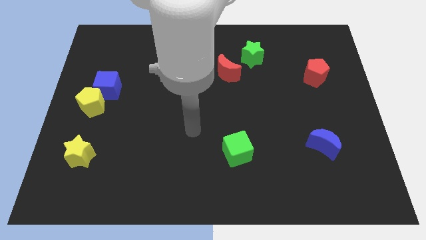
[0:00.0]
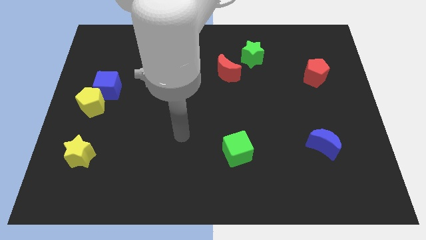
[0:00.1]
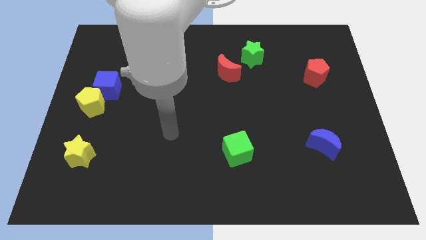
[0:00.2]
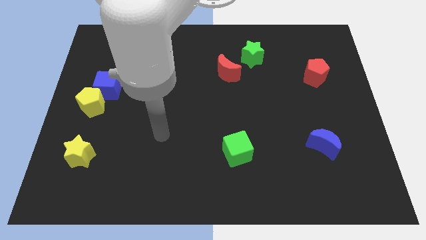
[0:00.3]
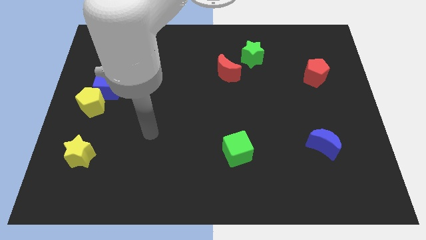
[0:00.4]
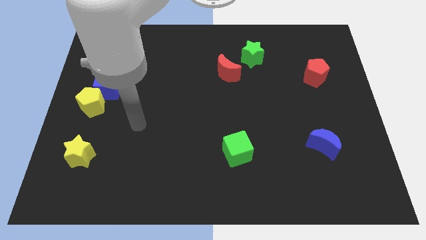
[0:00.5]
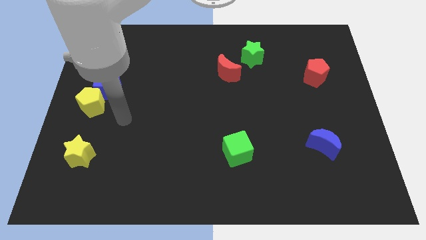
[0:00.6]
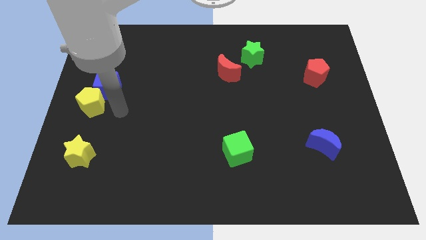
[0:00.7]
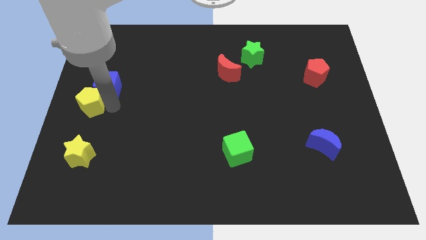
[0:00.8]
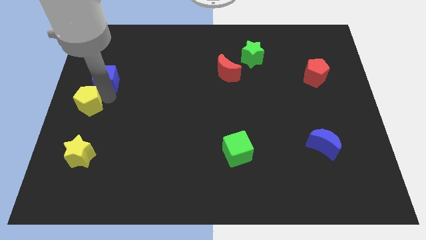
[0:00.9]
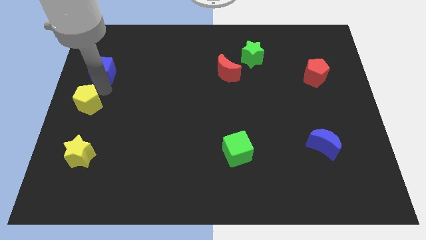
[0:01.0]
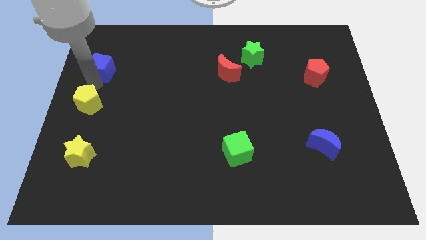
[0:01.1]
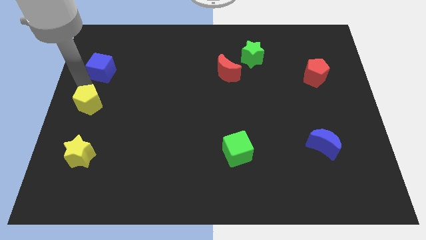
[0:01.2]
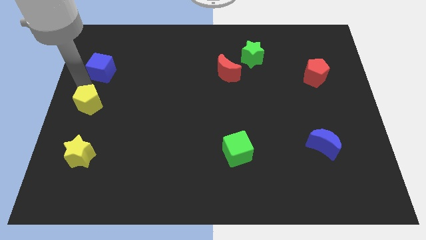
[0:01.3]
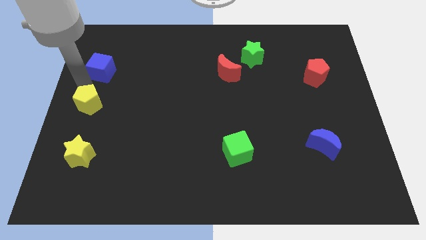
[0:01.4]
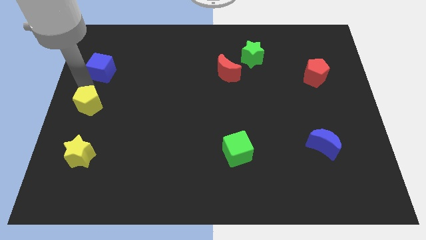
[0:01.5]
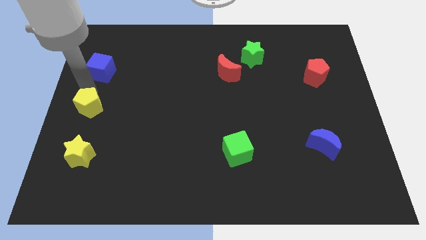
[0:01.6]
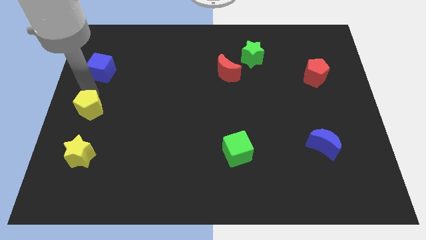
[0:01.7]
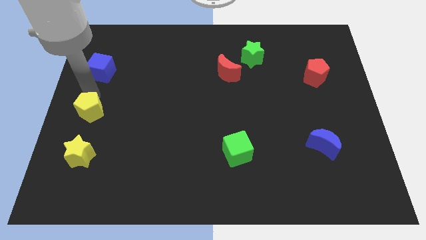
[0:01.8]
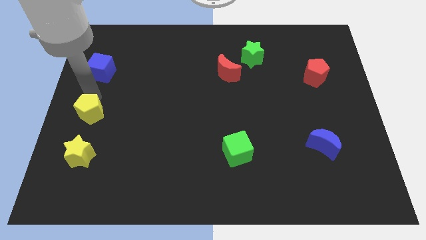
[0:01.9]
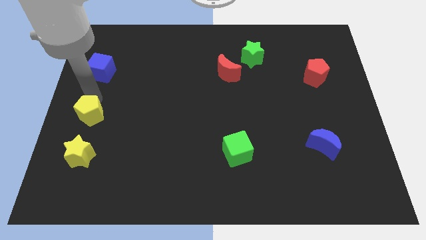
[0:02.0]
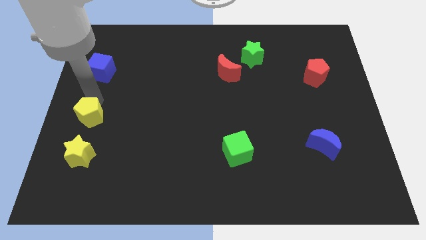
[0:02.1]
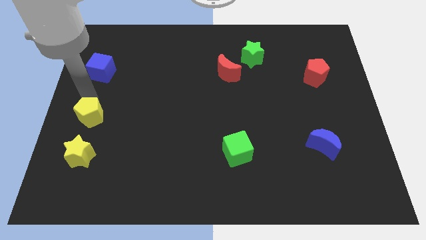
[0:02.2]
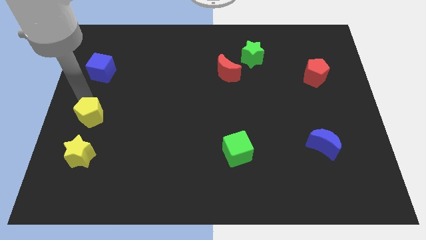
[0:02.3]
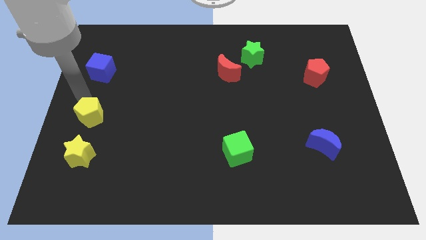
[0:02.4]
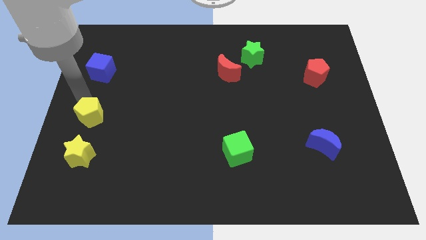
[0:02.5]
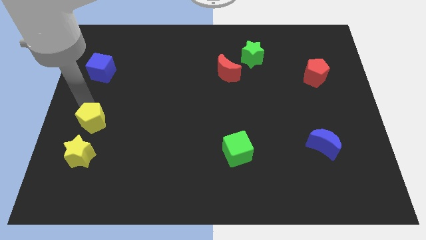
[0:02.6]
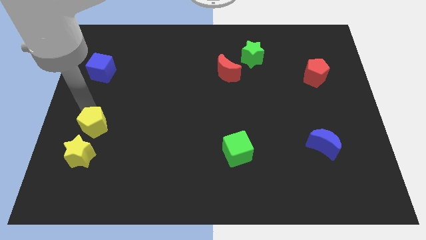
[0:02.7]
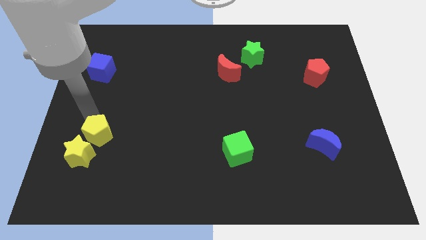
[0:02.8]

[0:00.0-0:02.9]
push the yellow pentagon downwards a little bit

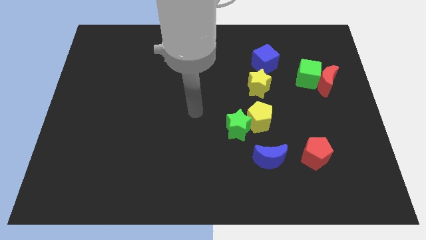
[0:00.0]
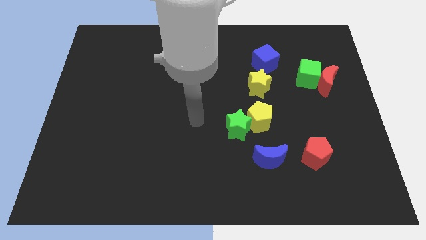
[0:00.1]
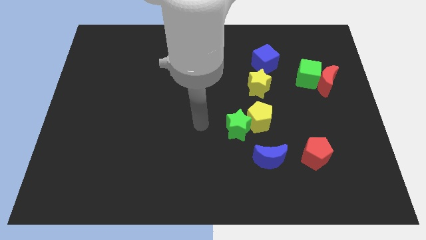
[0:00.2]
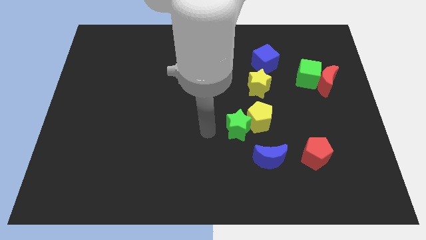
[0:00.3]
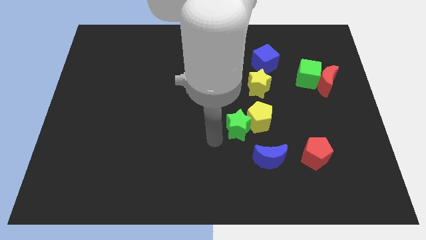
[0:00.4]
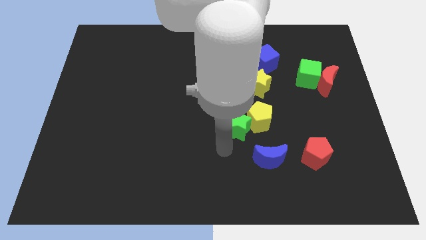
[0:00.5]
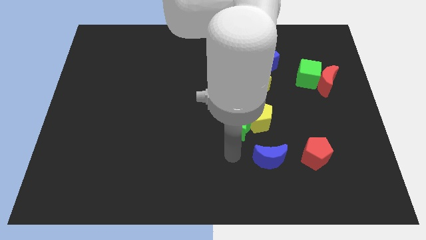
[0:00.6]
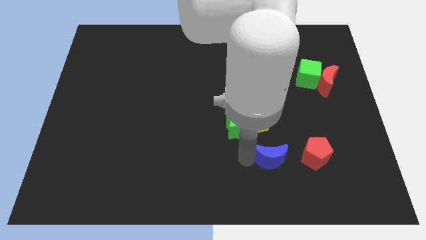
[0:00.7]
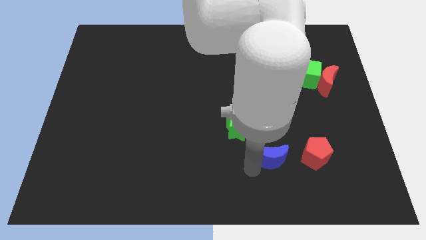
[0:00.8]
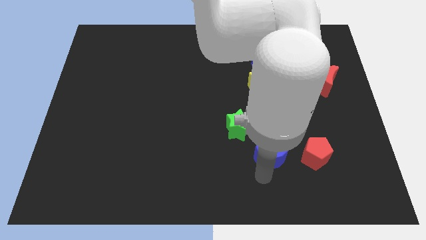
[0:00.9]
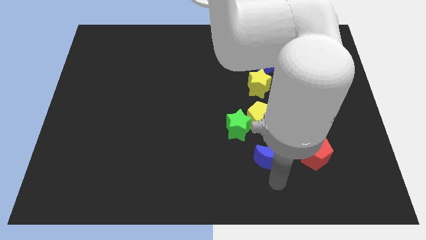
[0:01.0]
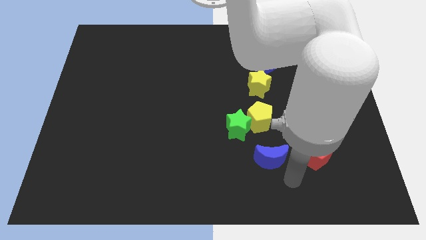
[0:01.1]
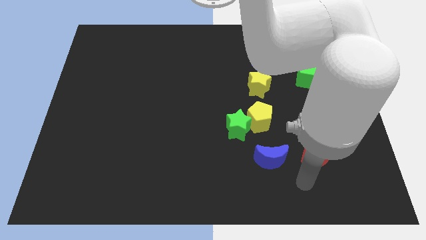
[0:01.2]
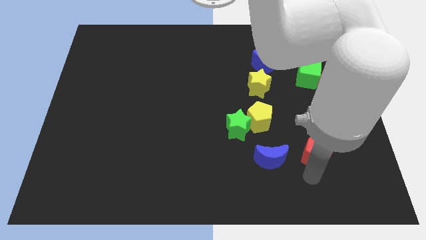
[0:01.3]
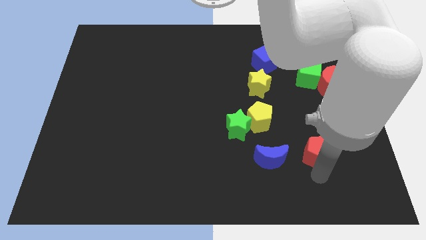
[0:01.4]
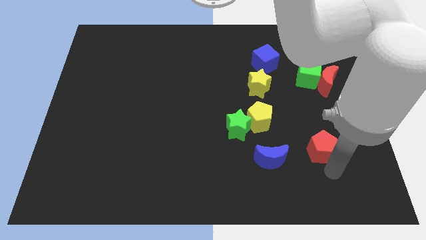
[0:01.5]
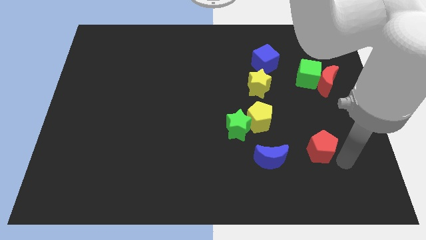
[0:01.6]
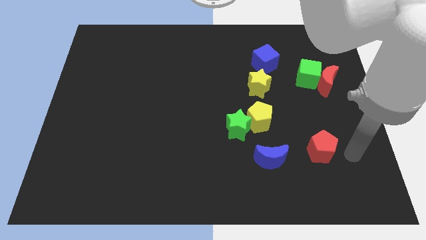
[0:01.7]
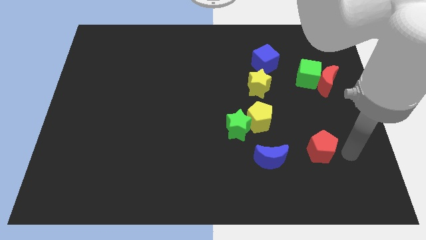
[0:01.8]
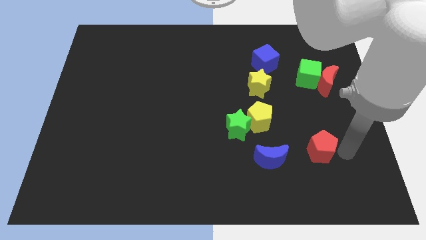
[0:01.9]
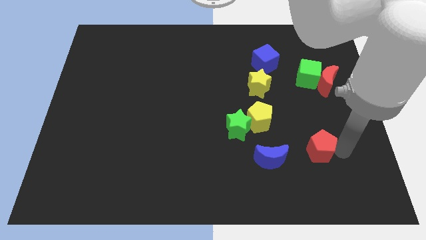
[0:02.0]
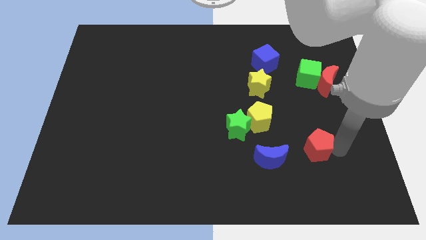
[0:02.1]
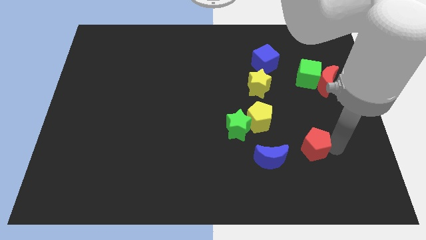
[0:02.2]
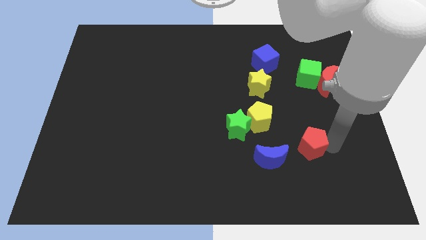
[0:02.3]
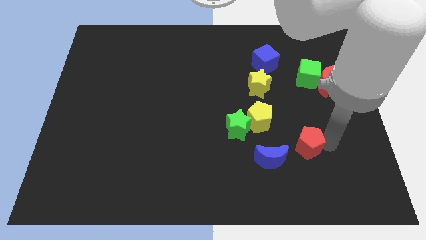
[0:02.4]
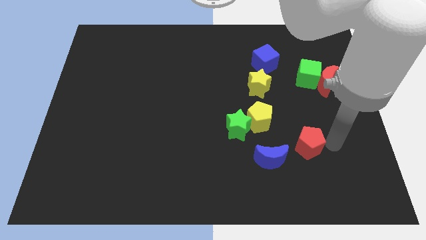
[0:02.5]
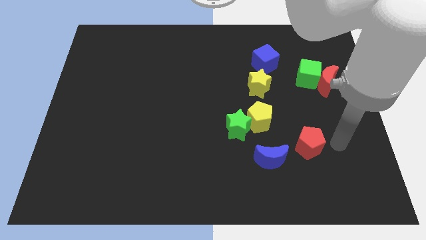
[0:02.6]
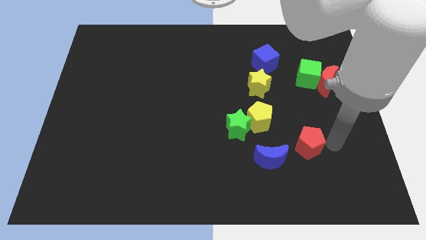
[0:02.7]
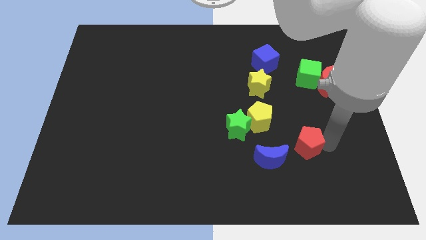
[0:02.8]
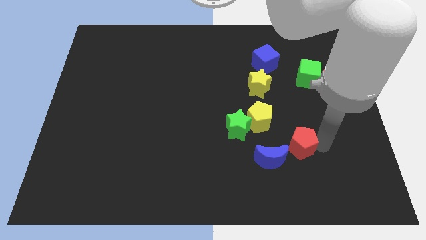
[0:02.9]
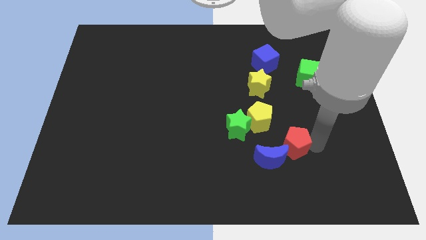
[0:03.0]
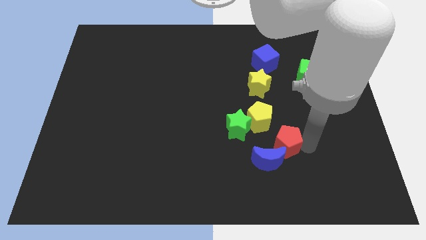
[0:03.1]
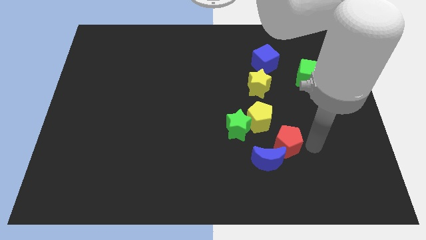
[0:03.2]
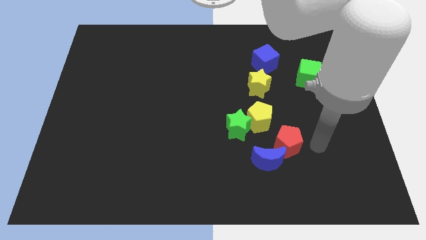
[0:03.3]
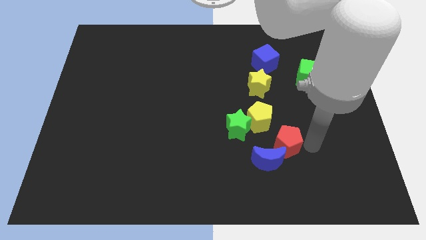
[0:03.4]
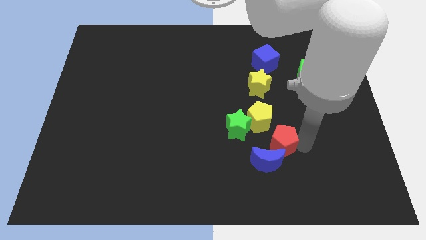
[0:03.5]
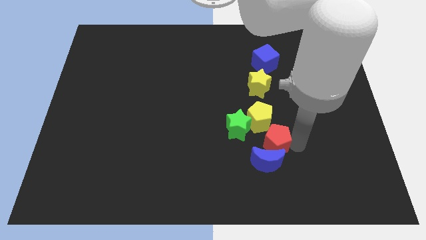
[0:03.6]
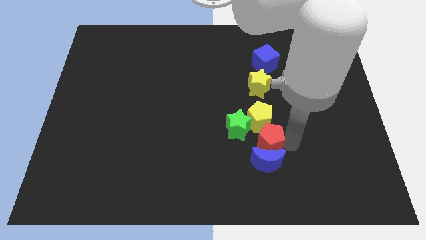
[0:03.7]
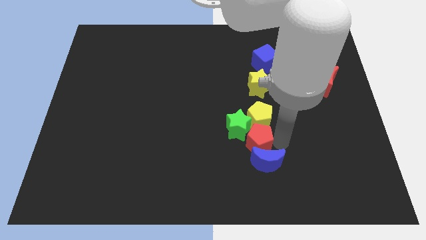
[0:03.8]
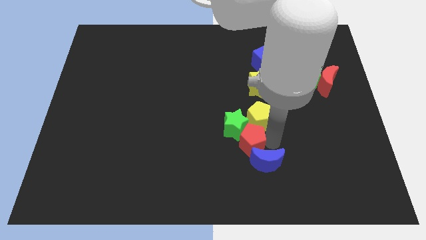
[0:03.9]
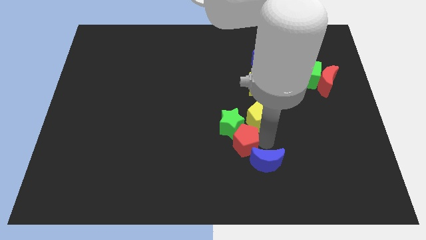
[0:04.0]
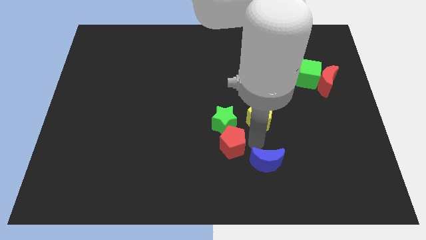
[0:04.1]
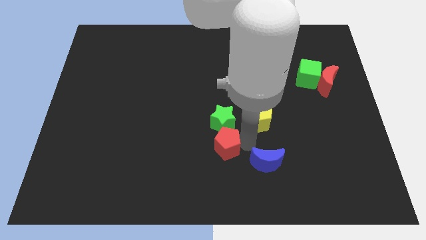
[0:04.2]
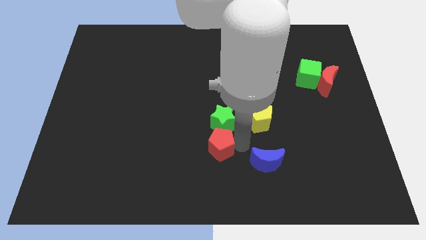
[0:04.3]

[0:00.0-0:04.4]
move the red pentagon to the left

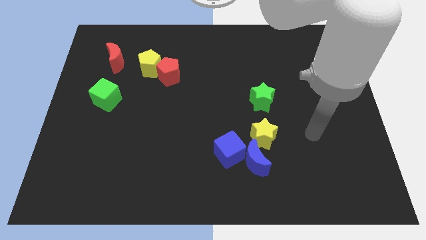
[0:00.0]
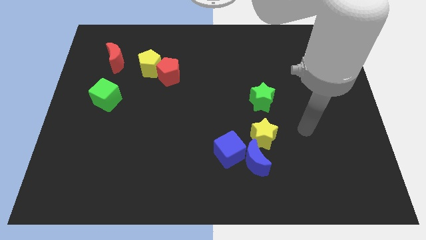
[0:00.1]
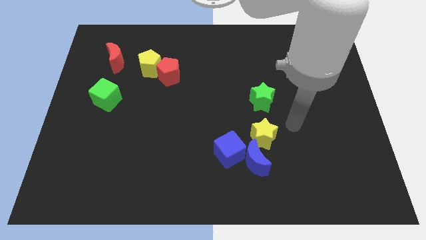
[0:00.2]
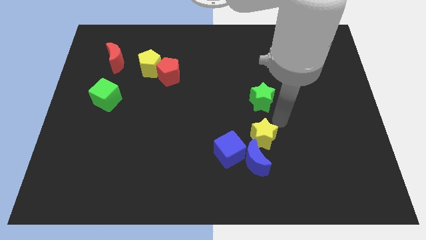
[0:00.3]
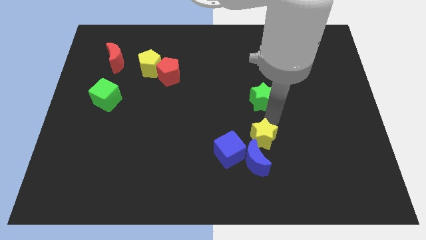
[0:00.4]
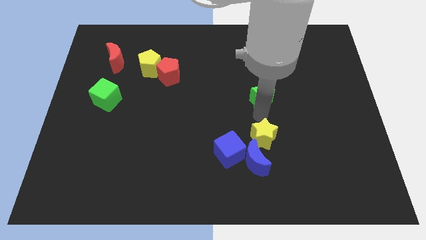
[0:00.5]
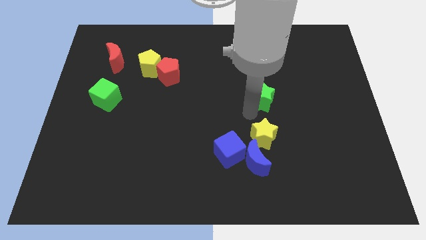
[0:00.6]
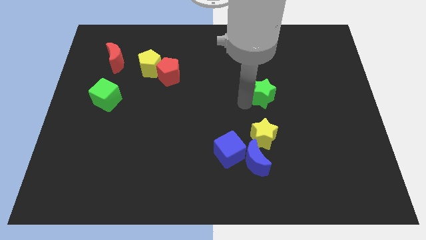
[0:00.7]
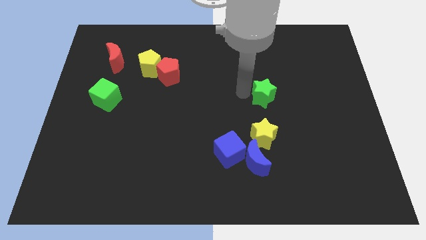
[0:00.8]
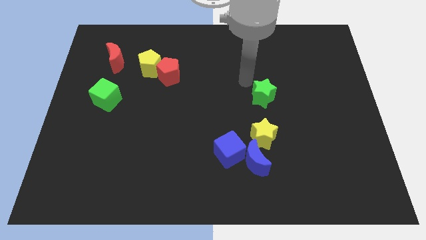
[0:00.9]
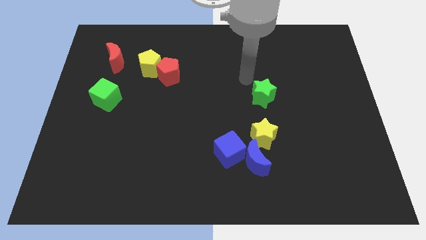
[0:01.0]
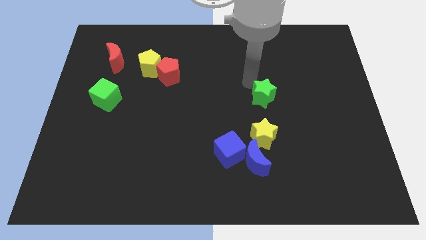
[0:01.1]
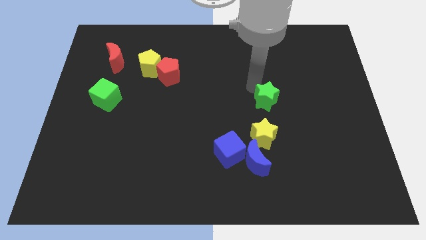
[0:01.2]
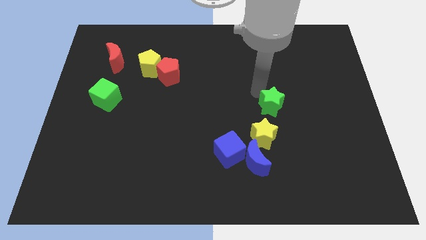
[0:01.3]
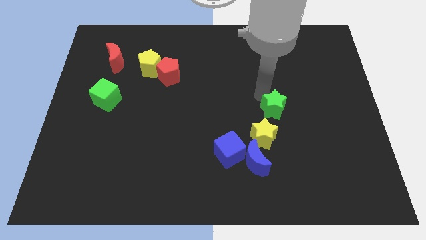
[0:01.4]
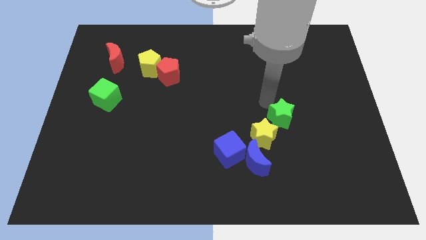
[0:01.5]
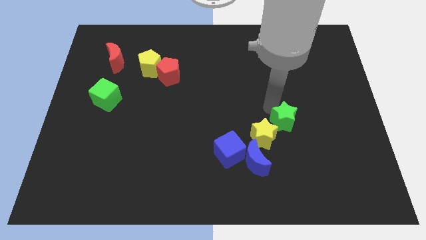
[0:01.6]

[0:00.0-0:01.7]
slide the green star somewhat downwards and right diagonally
